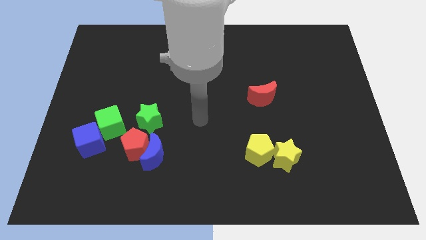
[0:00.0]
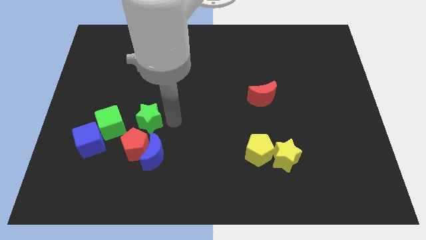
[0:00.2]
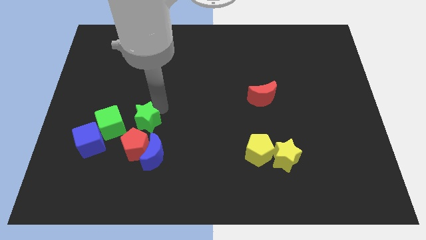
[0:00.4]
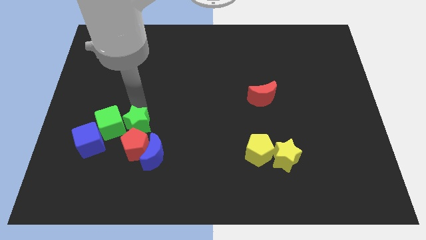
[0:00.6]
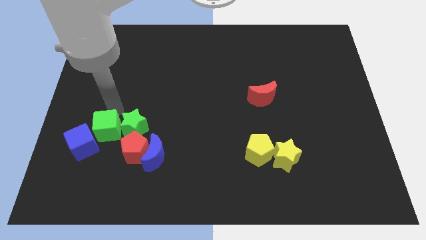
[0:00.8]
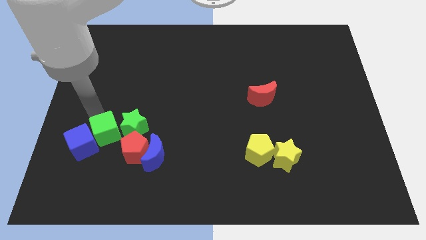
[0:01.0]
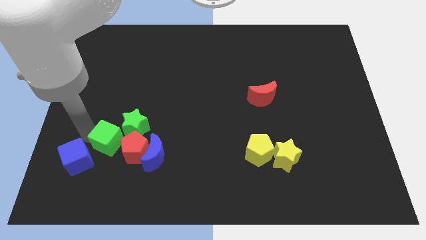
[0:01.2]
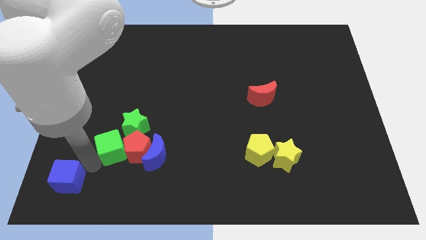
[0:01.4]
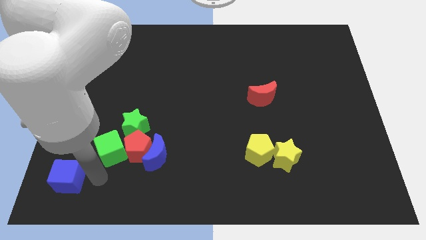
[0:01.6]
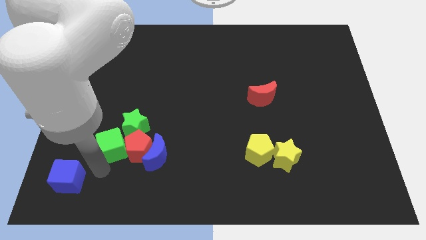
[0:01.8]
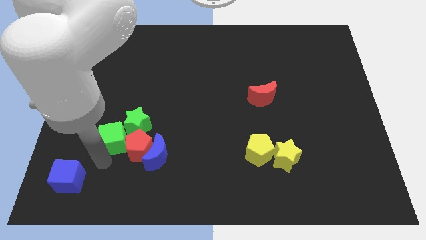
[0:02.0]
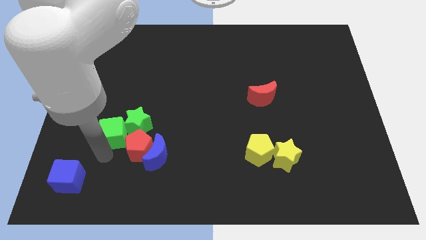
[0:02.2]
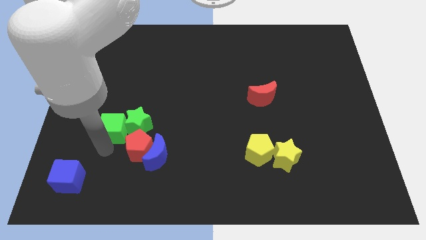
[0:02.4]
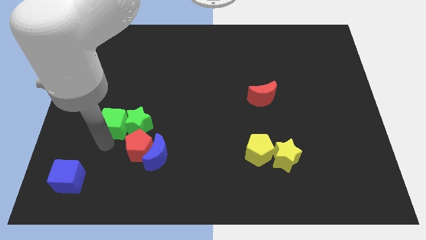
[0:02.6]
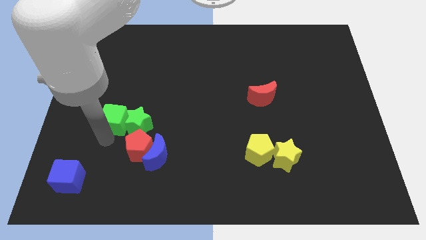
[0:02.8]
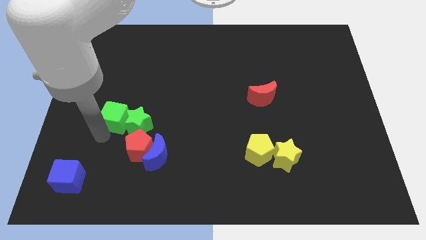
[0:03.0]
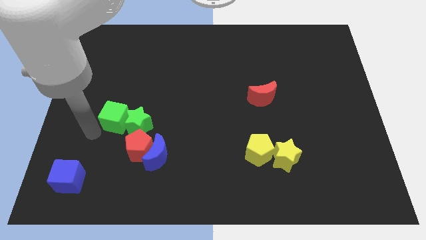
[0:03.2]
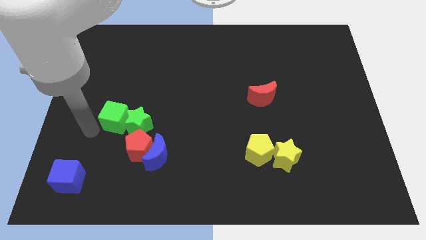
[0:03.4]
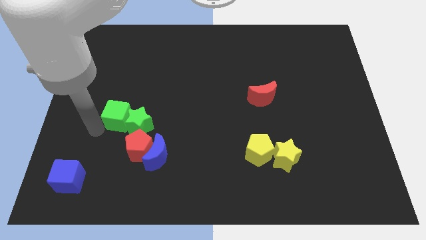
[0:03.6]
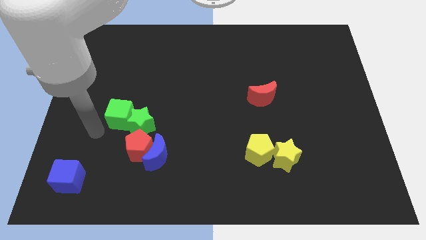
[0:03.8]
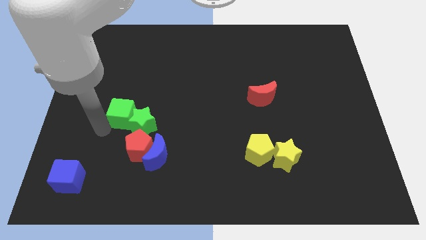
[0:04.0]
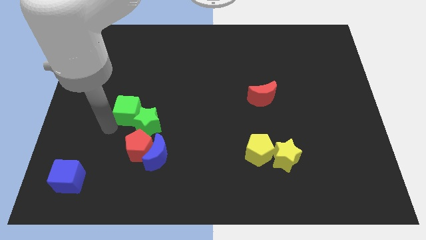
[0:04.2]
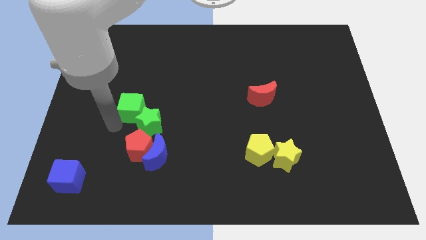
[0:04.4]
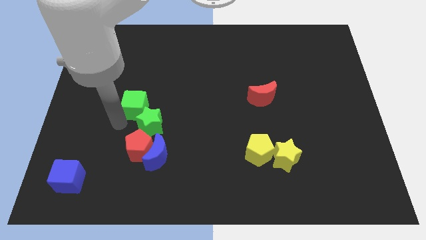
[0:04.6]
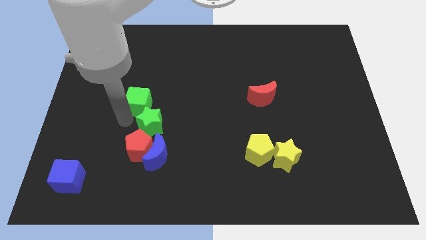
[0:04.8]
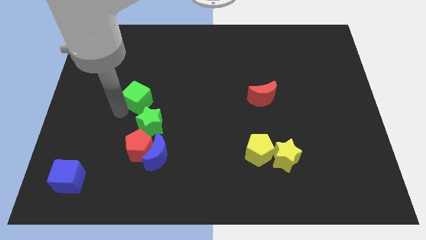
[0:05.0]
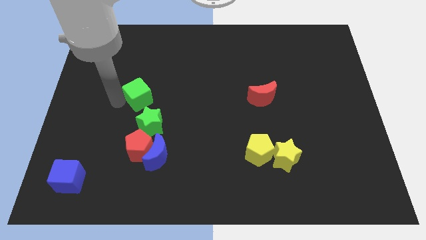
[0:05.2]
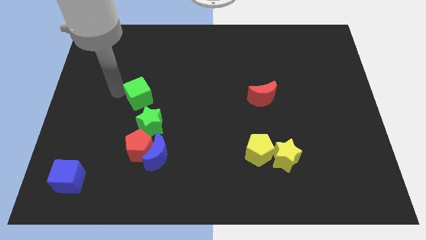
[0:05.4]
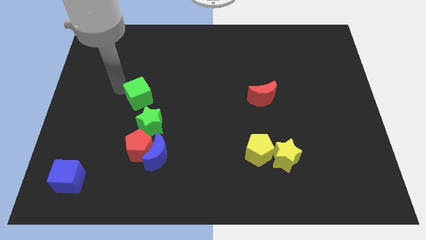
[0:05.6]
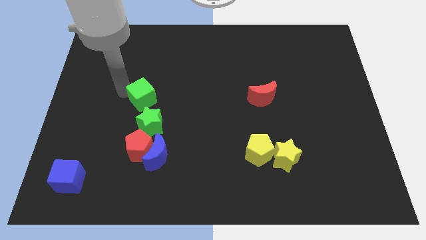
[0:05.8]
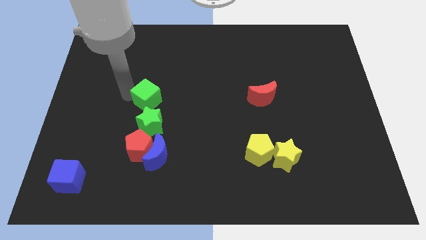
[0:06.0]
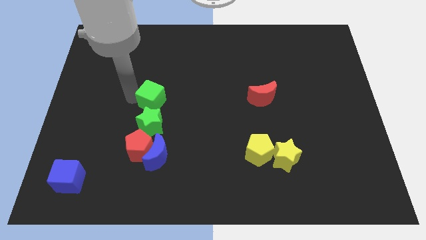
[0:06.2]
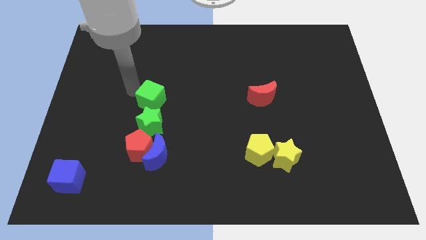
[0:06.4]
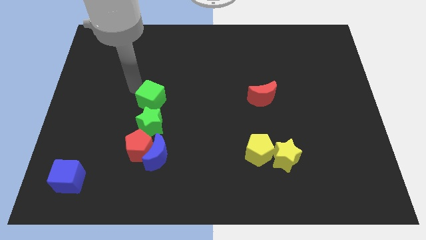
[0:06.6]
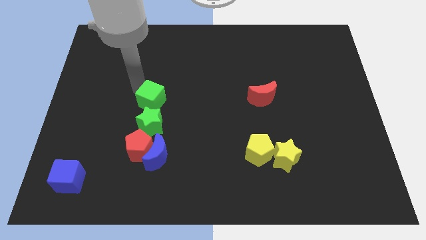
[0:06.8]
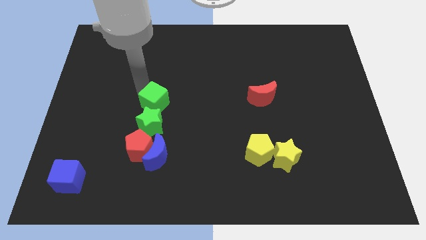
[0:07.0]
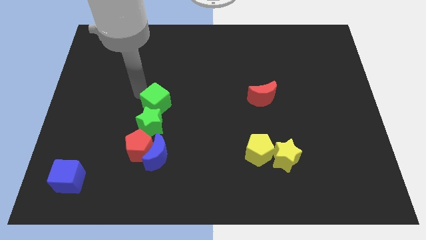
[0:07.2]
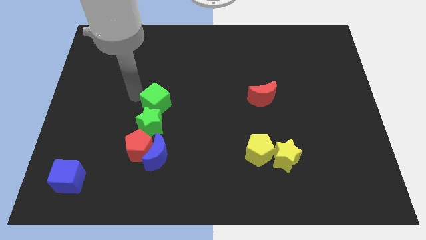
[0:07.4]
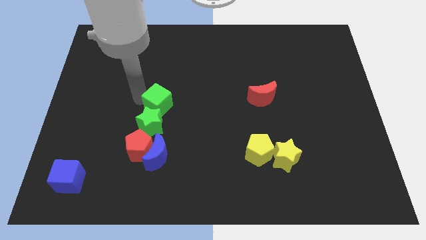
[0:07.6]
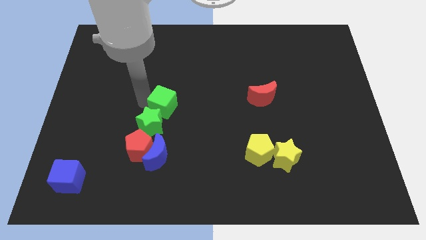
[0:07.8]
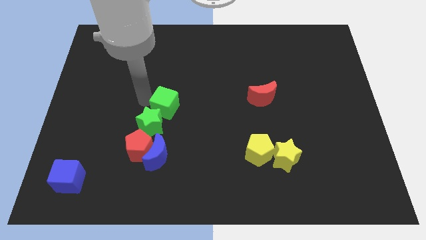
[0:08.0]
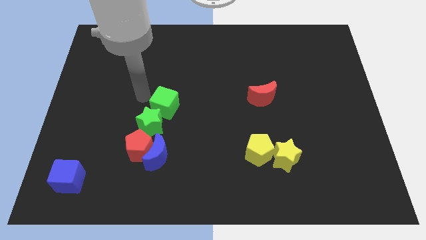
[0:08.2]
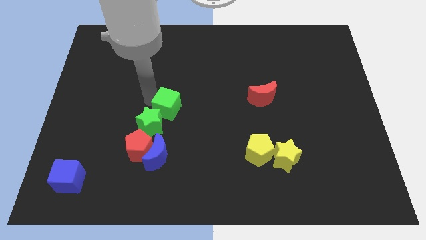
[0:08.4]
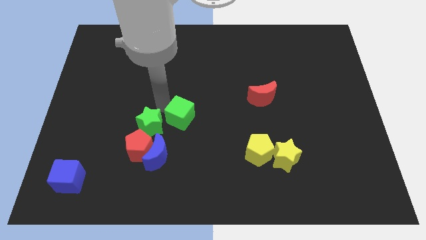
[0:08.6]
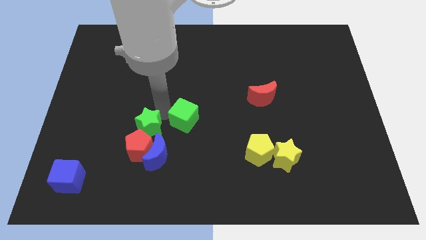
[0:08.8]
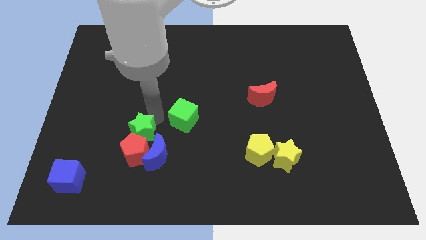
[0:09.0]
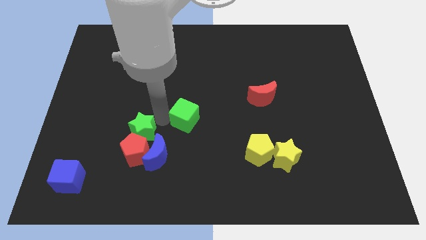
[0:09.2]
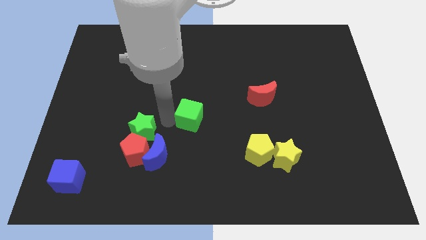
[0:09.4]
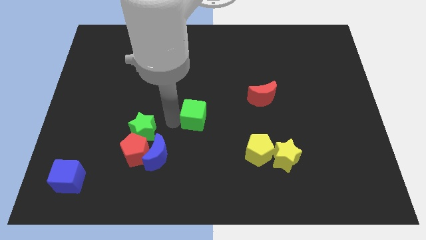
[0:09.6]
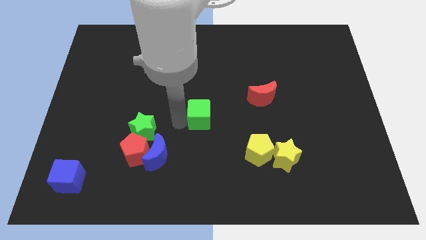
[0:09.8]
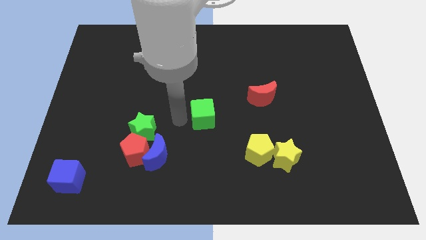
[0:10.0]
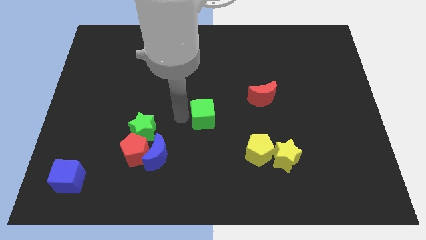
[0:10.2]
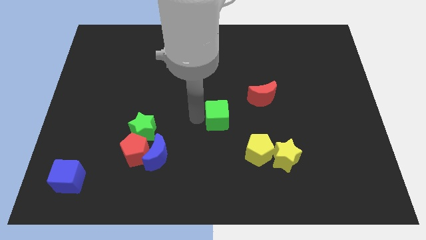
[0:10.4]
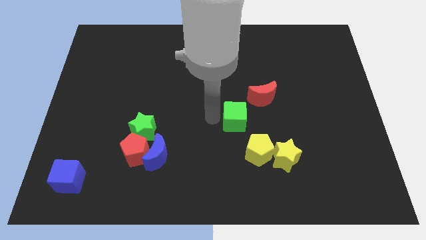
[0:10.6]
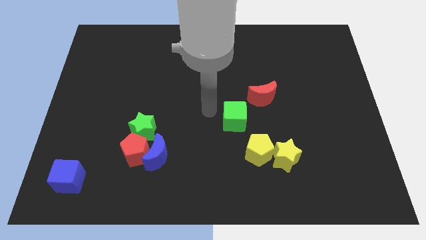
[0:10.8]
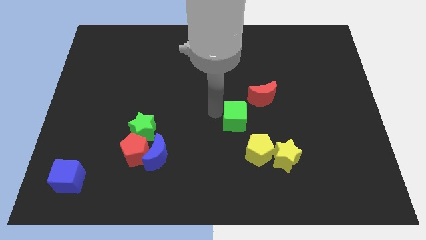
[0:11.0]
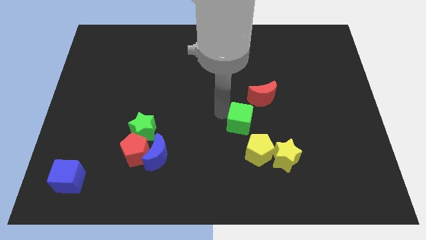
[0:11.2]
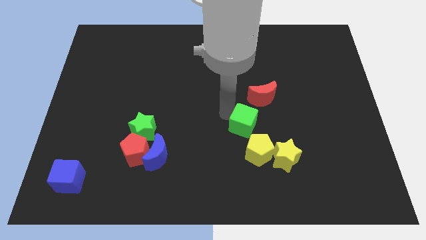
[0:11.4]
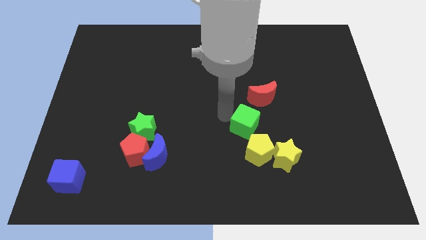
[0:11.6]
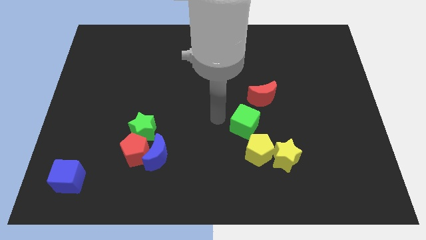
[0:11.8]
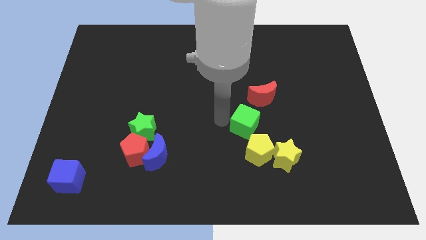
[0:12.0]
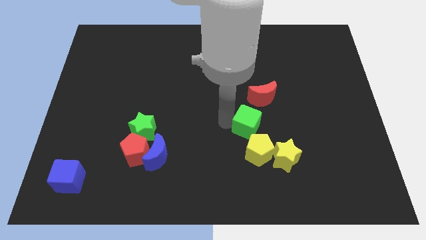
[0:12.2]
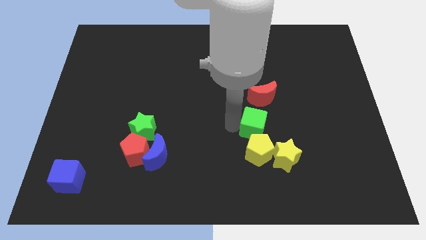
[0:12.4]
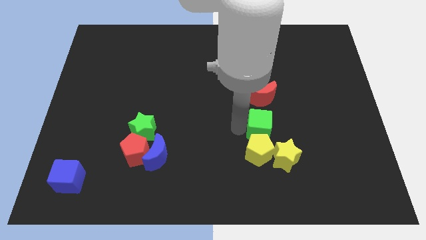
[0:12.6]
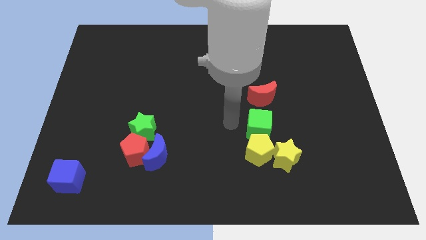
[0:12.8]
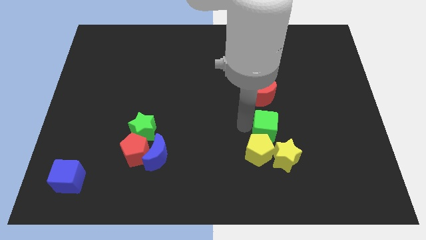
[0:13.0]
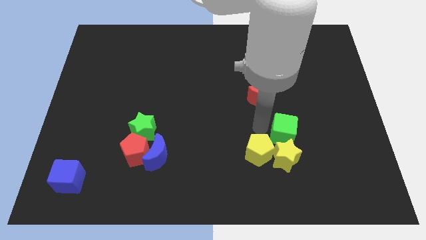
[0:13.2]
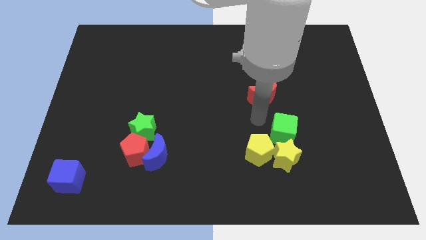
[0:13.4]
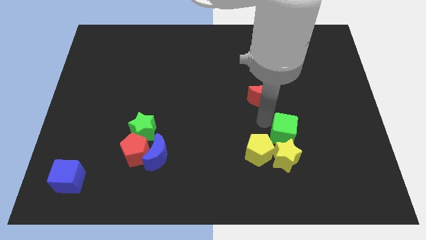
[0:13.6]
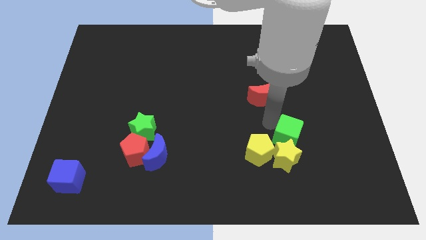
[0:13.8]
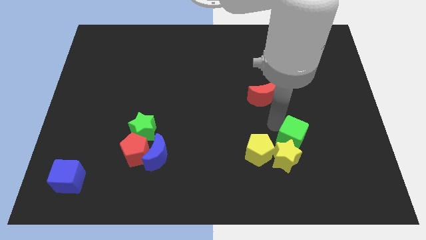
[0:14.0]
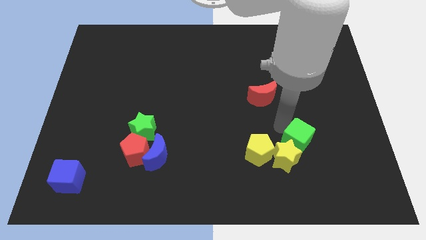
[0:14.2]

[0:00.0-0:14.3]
push the green cube right of the yellow star
